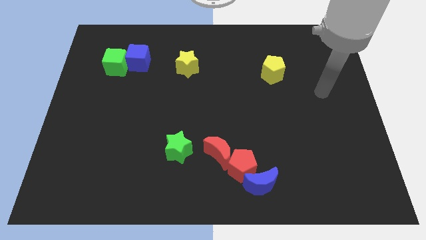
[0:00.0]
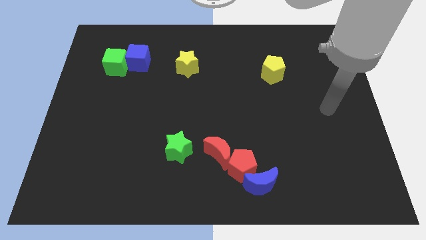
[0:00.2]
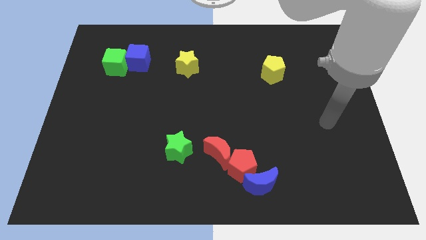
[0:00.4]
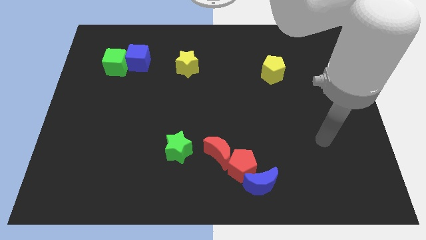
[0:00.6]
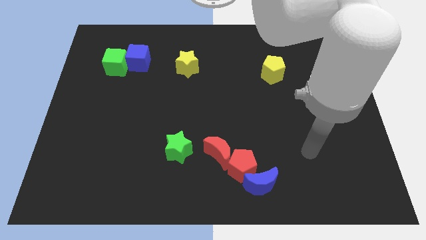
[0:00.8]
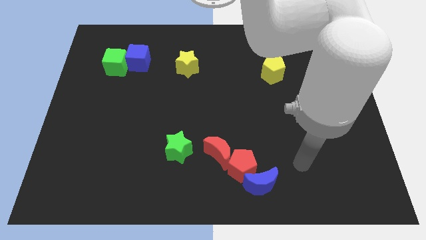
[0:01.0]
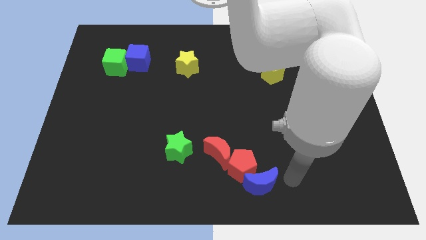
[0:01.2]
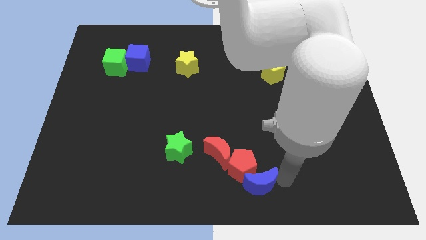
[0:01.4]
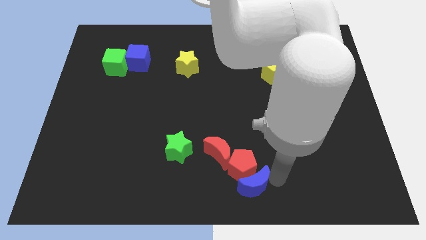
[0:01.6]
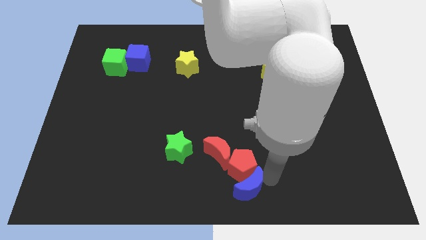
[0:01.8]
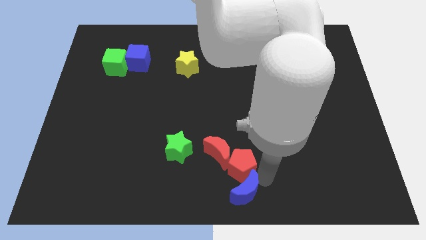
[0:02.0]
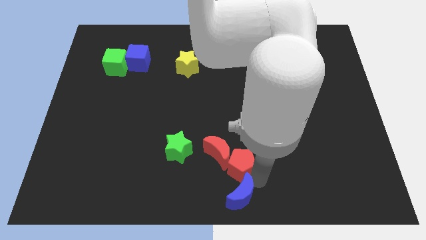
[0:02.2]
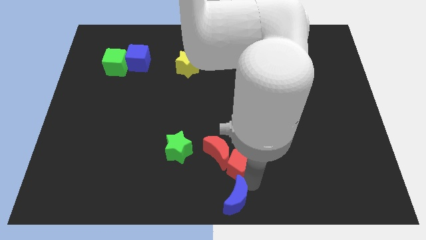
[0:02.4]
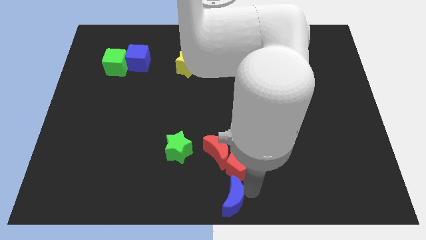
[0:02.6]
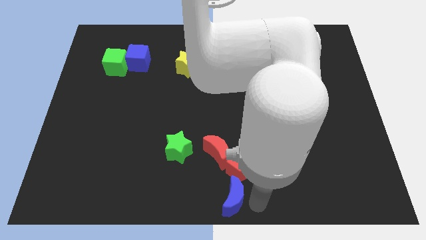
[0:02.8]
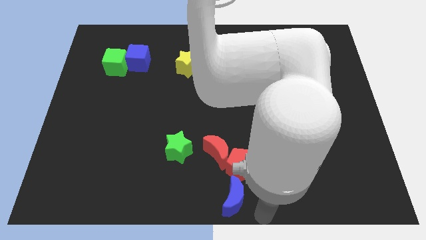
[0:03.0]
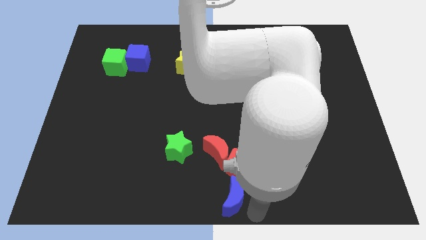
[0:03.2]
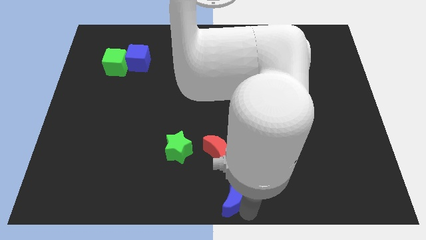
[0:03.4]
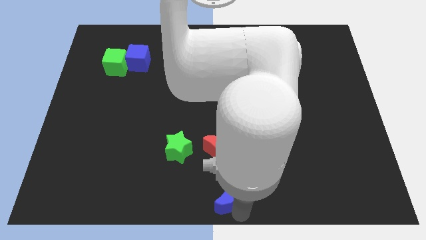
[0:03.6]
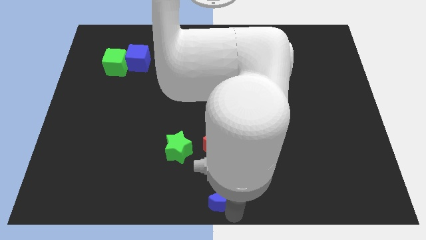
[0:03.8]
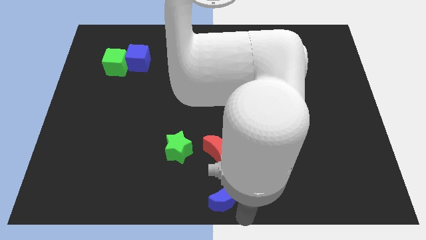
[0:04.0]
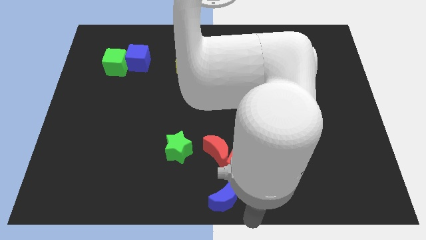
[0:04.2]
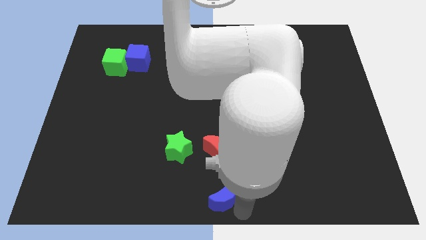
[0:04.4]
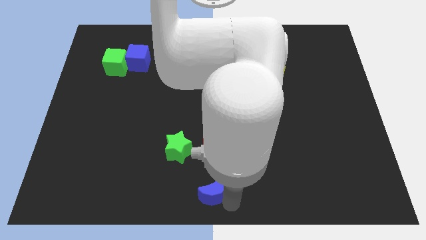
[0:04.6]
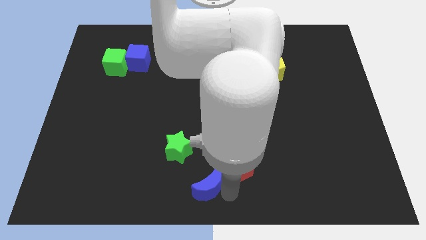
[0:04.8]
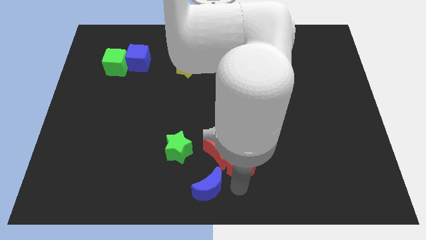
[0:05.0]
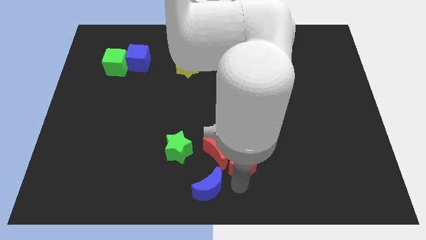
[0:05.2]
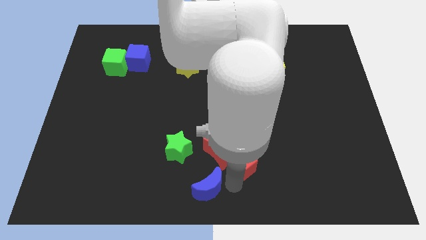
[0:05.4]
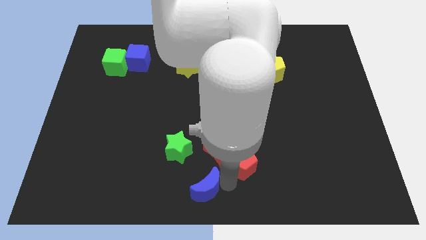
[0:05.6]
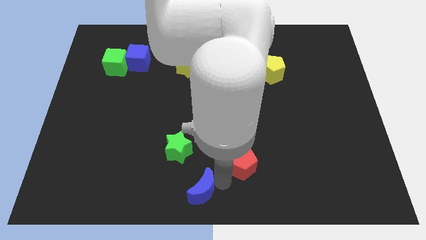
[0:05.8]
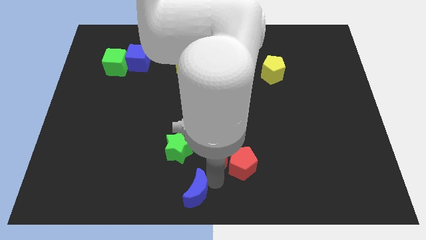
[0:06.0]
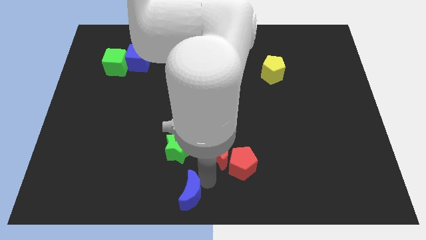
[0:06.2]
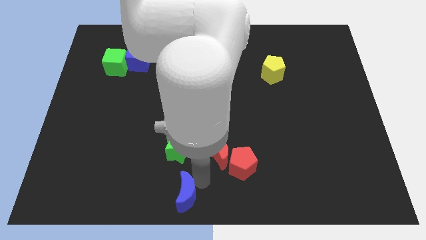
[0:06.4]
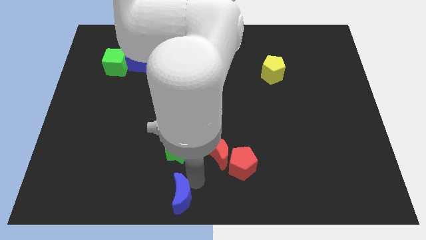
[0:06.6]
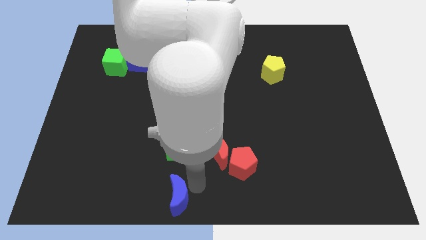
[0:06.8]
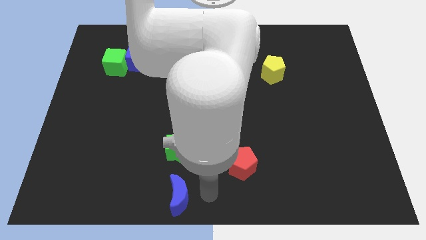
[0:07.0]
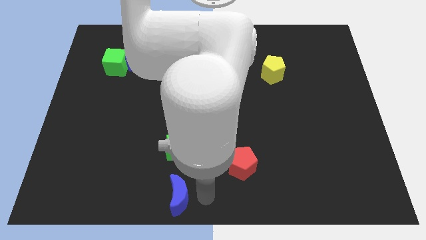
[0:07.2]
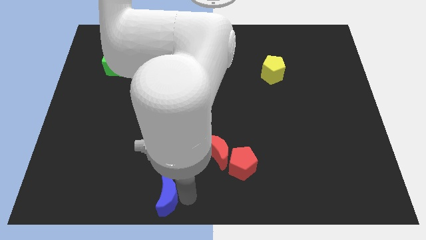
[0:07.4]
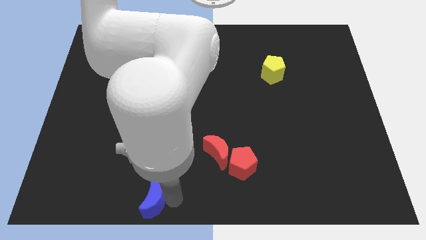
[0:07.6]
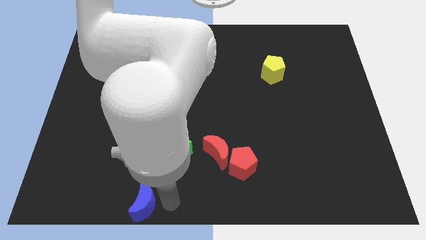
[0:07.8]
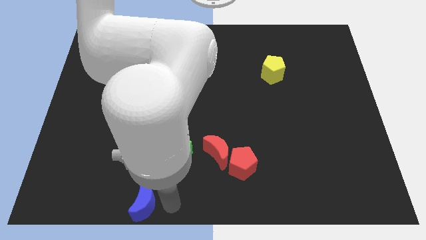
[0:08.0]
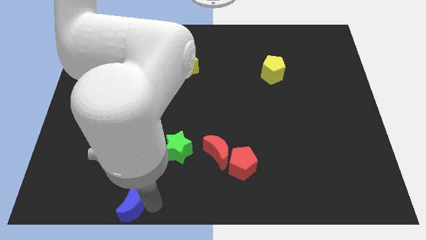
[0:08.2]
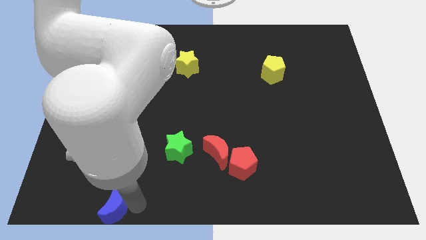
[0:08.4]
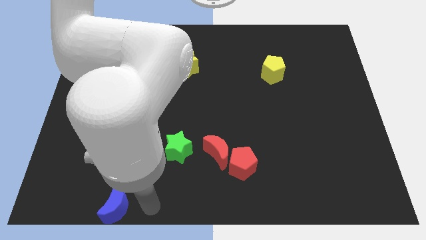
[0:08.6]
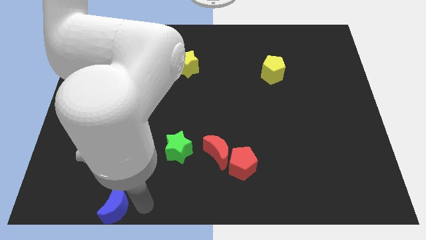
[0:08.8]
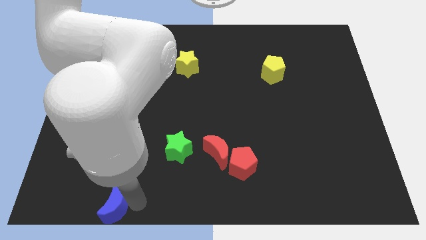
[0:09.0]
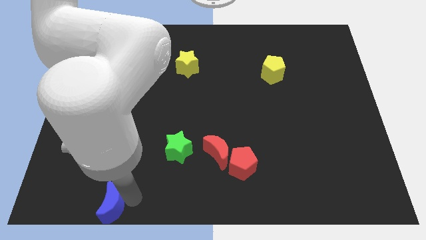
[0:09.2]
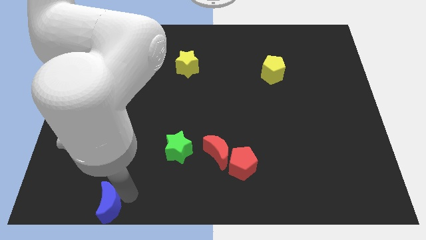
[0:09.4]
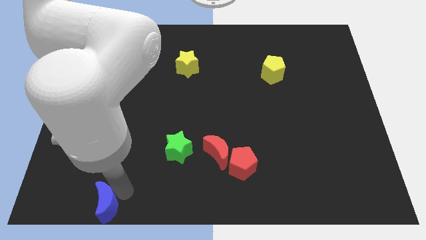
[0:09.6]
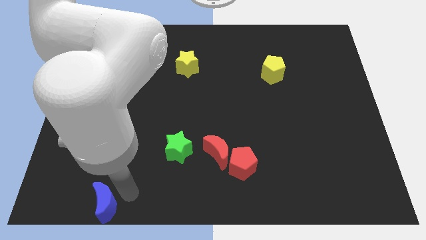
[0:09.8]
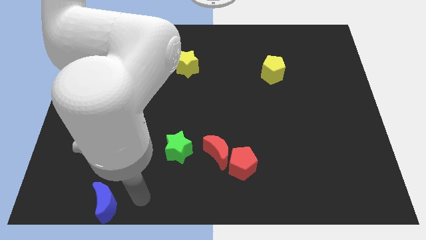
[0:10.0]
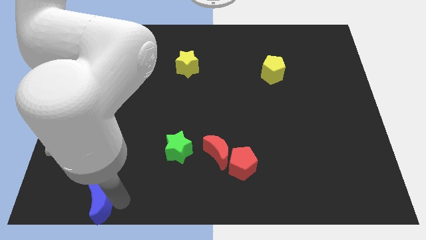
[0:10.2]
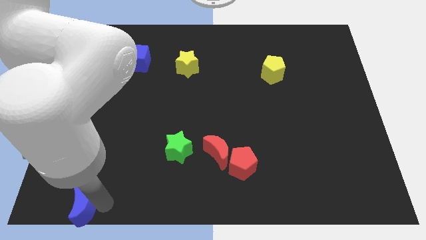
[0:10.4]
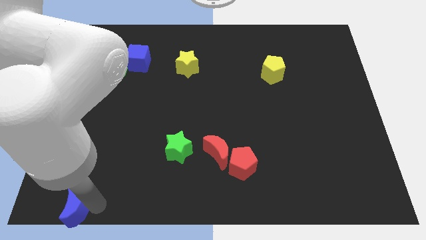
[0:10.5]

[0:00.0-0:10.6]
slide the blue moon to the bottom left of the board

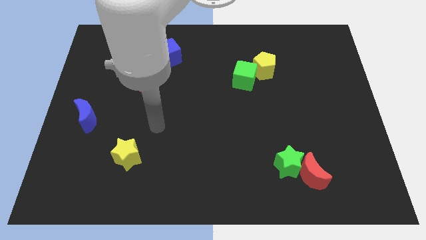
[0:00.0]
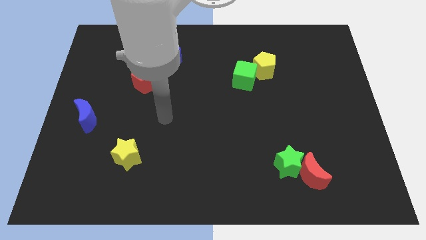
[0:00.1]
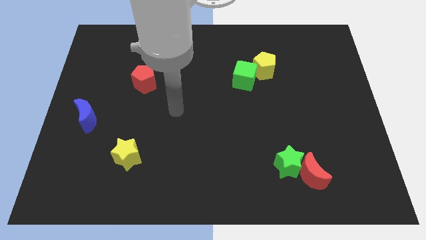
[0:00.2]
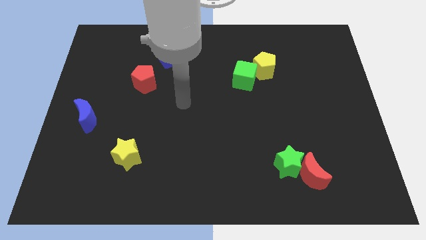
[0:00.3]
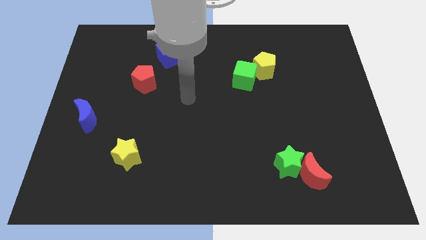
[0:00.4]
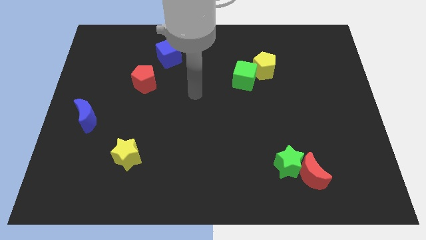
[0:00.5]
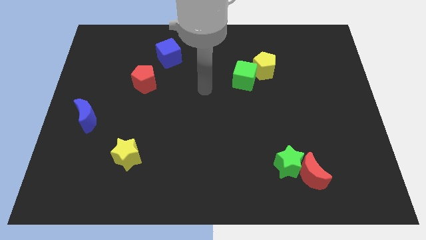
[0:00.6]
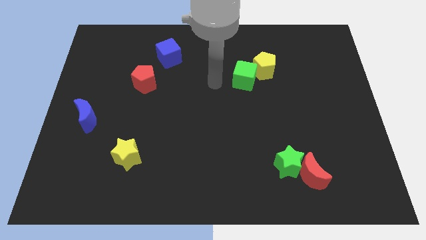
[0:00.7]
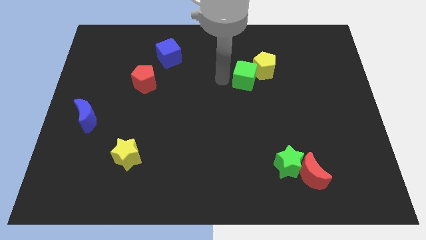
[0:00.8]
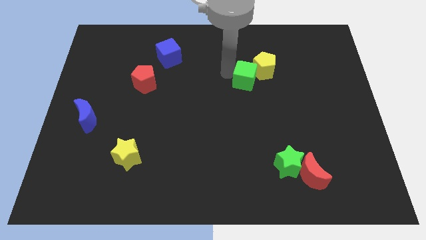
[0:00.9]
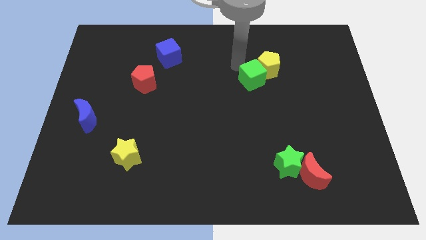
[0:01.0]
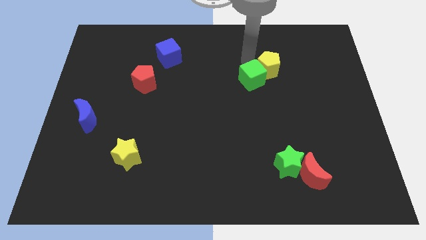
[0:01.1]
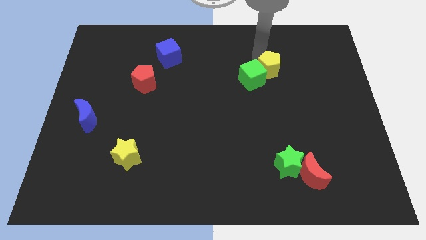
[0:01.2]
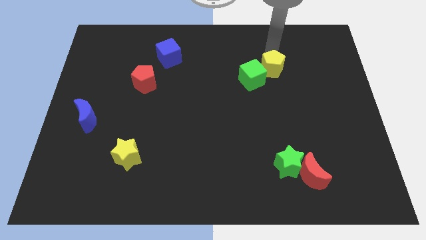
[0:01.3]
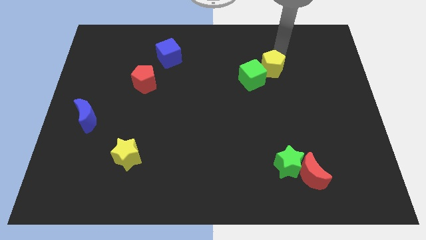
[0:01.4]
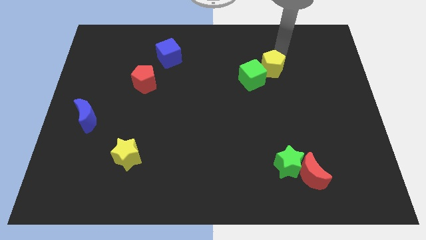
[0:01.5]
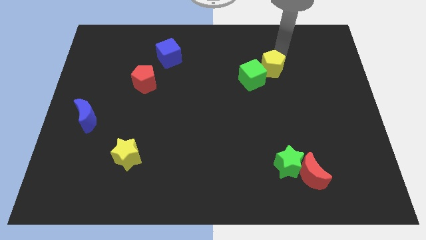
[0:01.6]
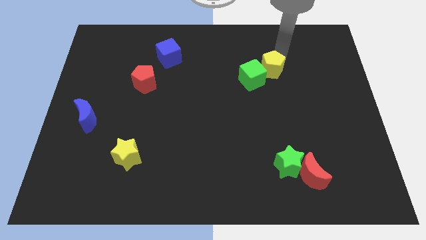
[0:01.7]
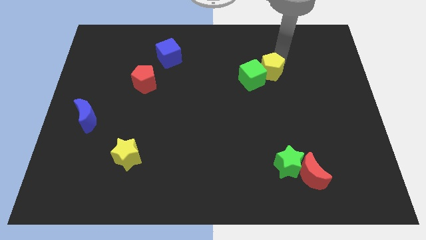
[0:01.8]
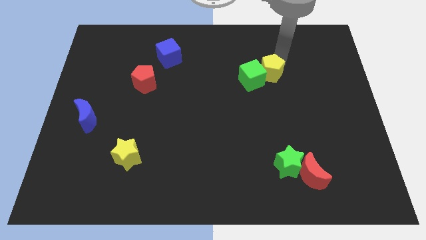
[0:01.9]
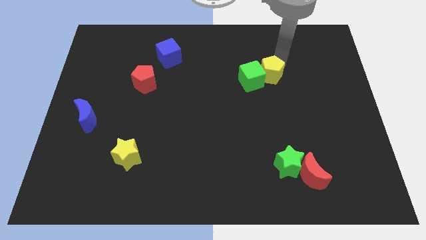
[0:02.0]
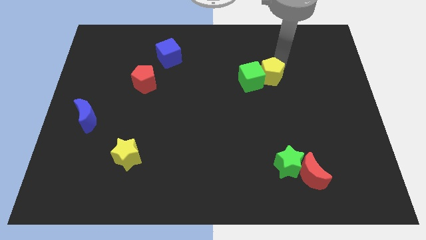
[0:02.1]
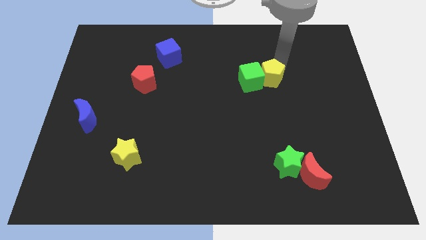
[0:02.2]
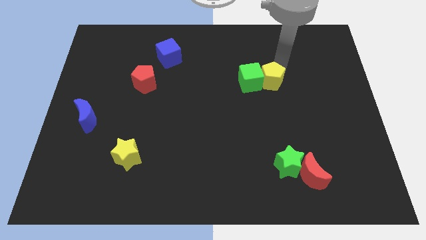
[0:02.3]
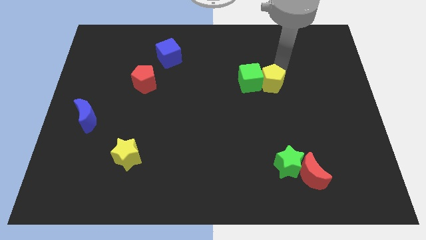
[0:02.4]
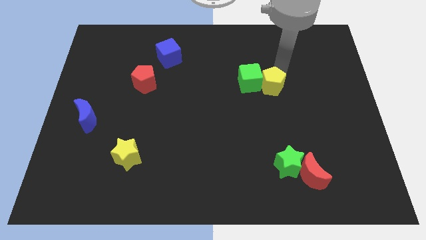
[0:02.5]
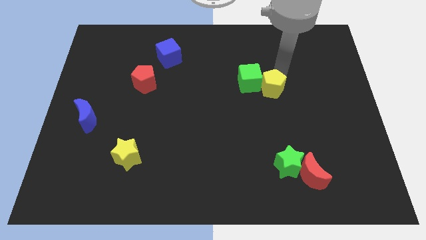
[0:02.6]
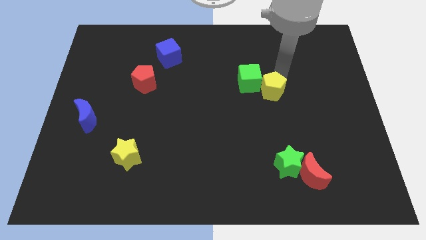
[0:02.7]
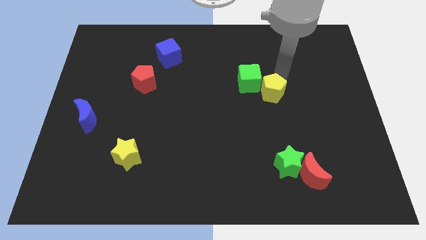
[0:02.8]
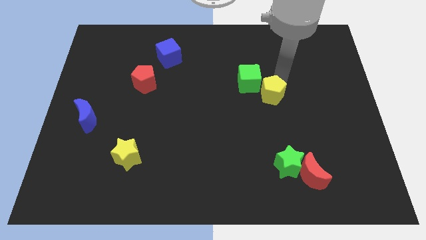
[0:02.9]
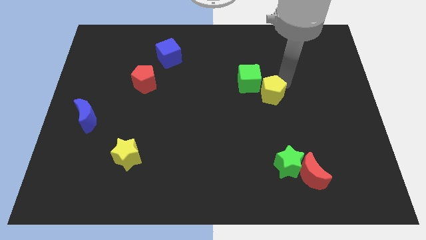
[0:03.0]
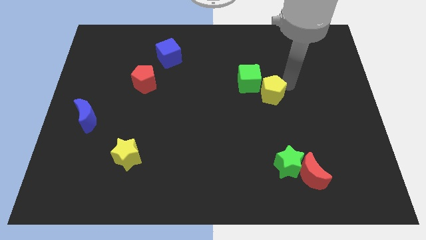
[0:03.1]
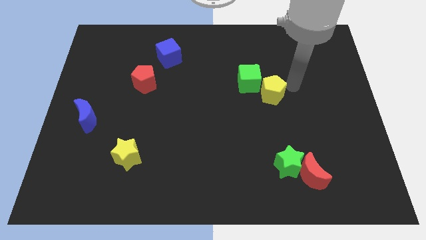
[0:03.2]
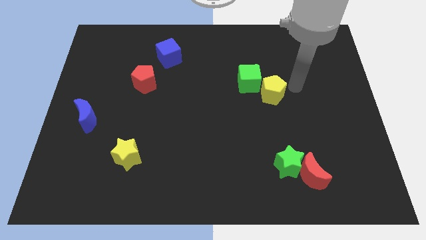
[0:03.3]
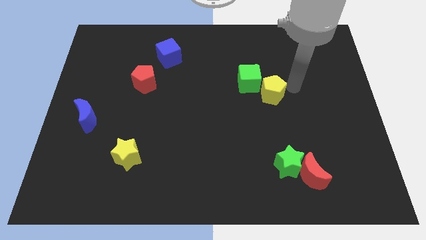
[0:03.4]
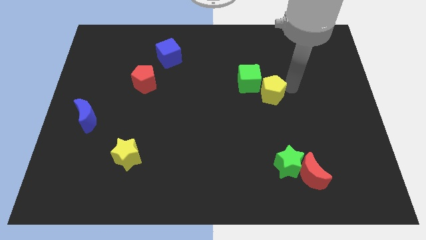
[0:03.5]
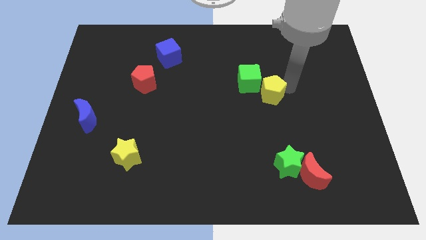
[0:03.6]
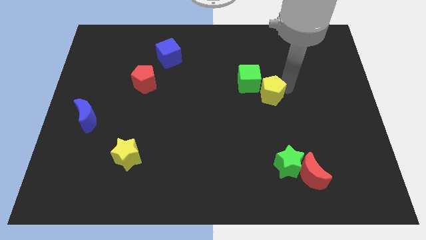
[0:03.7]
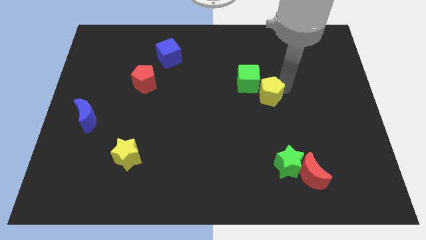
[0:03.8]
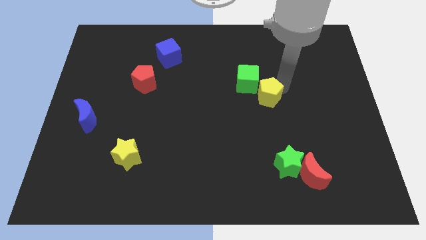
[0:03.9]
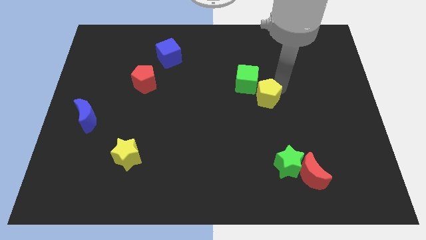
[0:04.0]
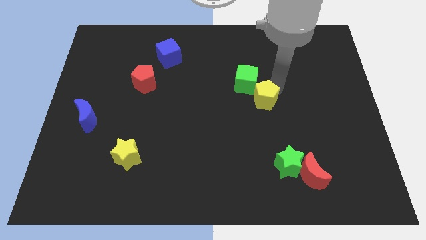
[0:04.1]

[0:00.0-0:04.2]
slide the yellow pentagon to the center of the board
